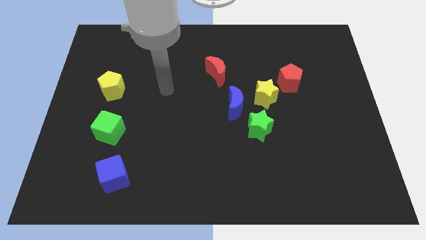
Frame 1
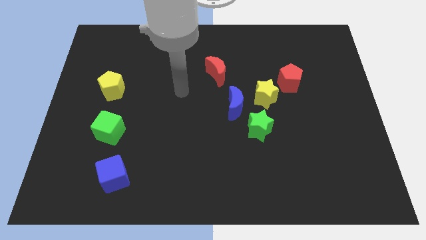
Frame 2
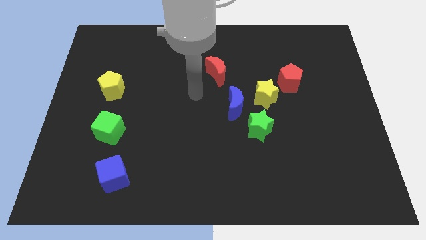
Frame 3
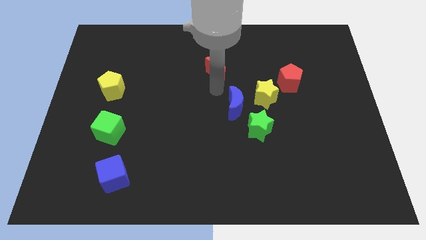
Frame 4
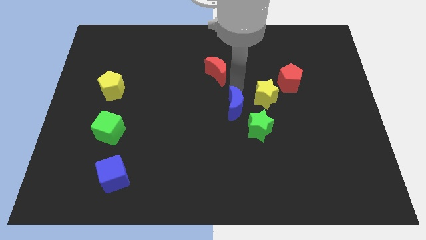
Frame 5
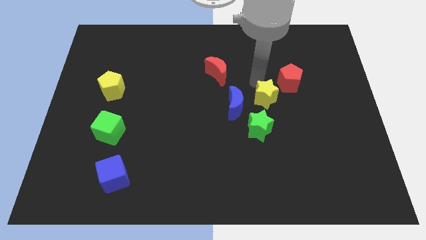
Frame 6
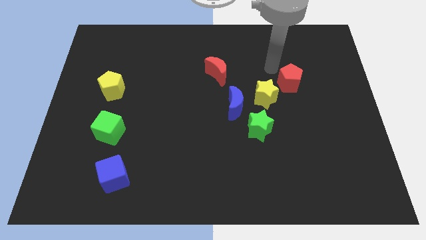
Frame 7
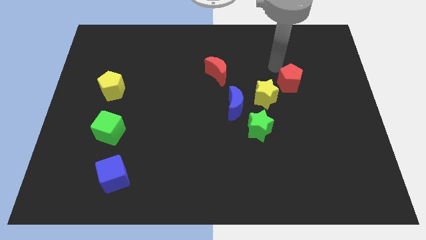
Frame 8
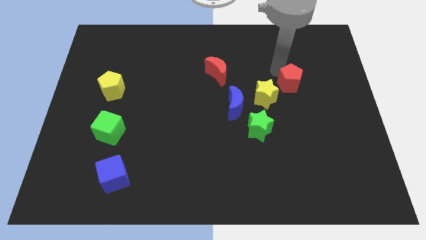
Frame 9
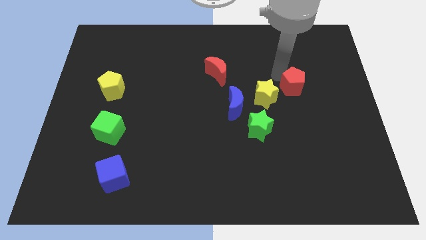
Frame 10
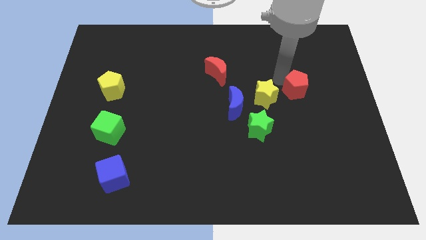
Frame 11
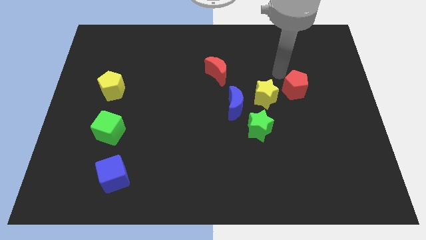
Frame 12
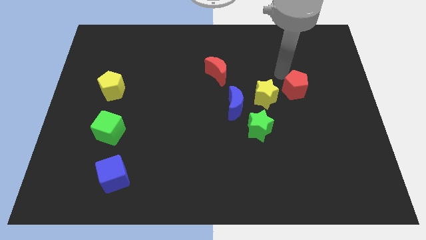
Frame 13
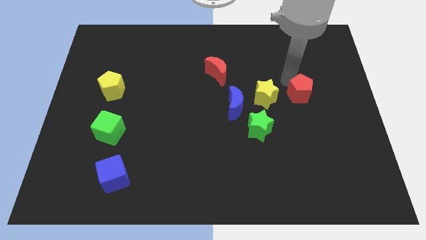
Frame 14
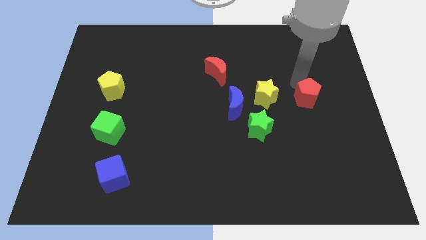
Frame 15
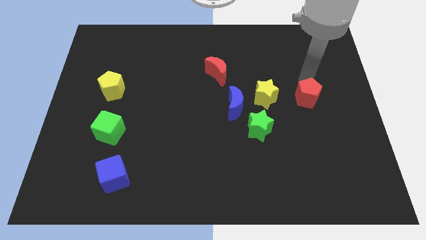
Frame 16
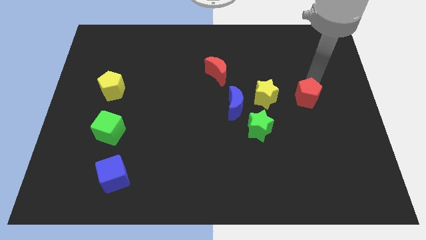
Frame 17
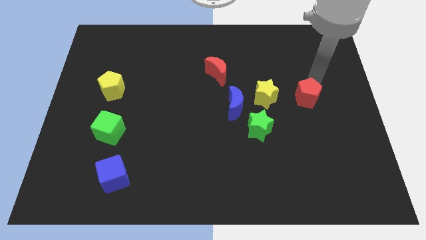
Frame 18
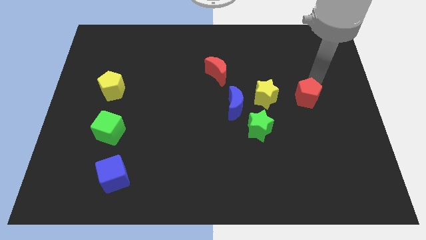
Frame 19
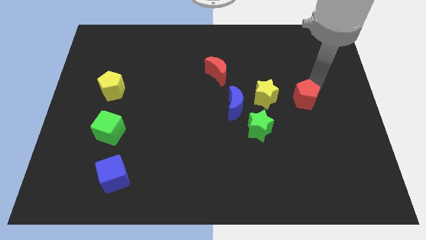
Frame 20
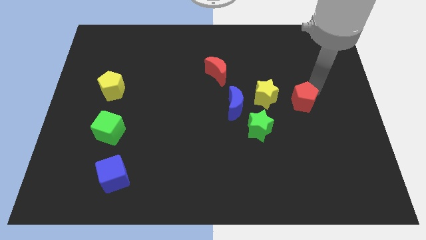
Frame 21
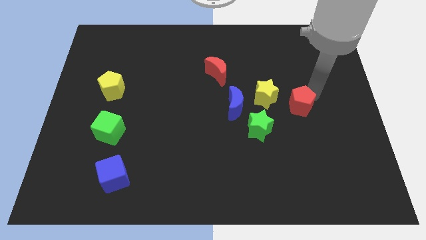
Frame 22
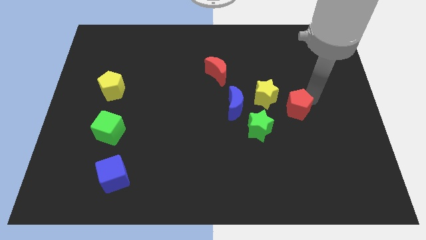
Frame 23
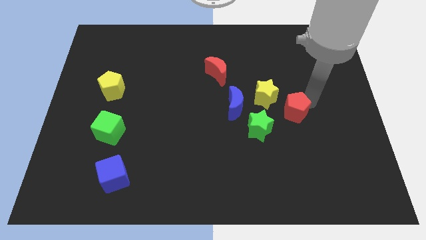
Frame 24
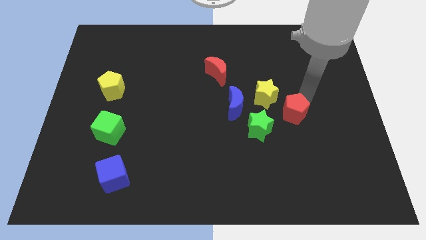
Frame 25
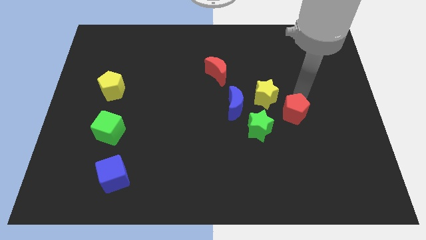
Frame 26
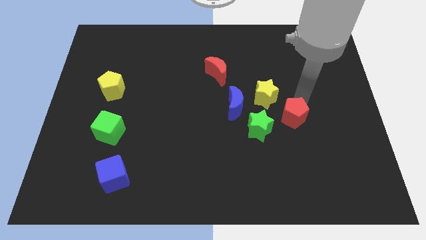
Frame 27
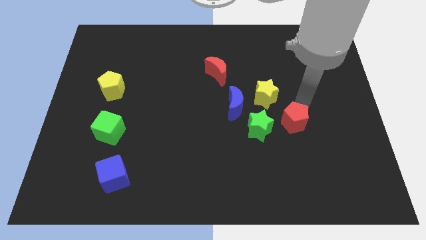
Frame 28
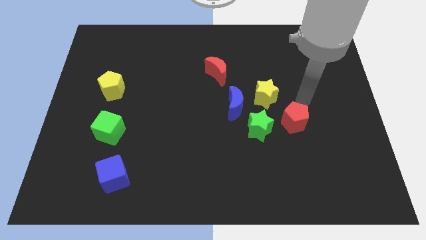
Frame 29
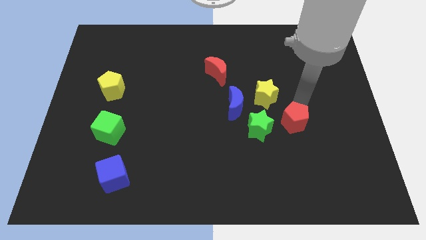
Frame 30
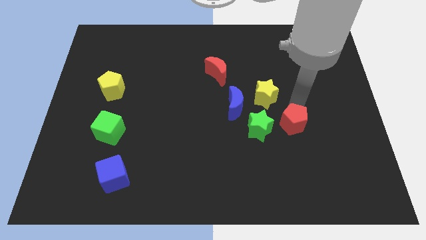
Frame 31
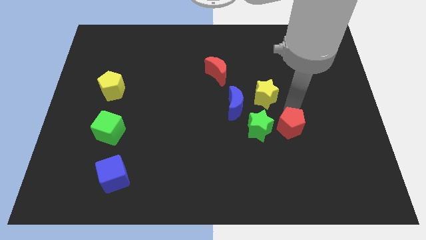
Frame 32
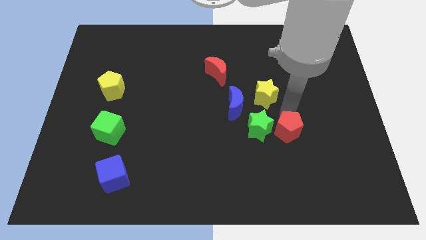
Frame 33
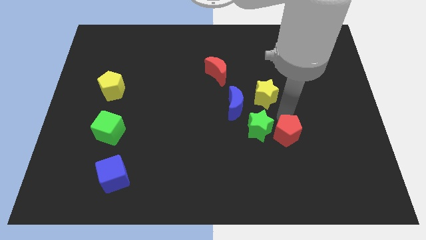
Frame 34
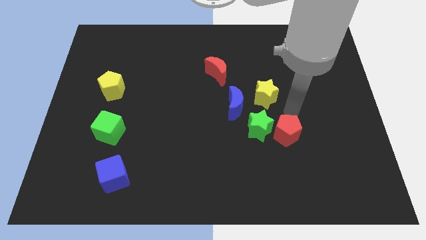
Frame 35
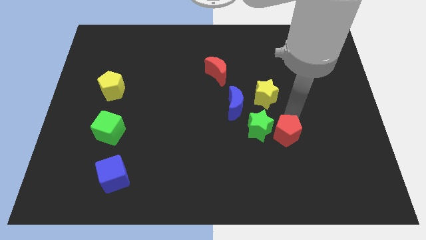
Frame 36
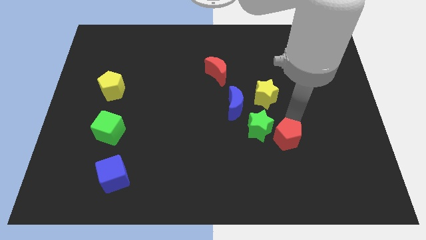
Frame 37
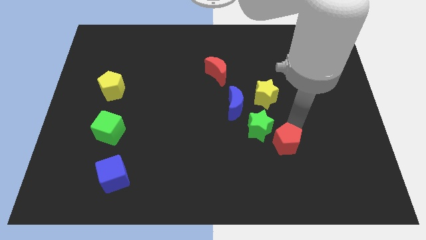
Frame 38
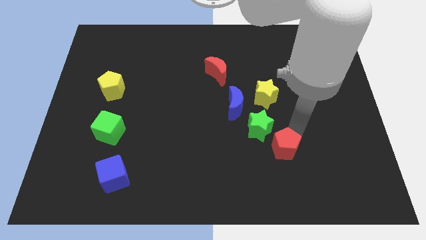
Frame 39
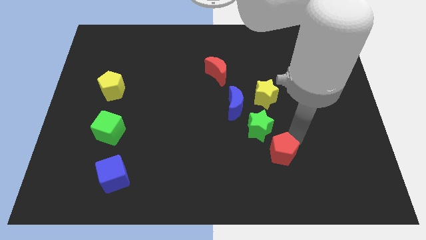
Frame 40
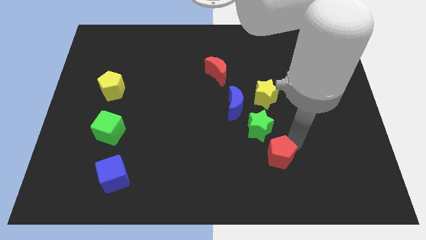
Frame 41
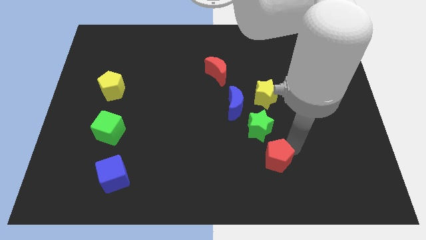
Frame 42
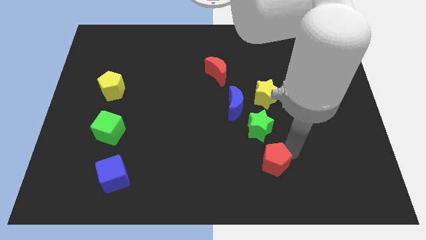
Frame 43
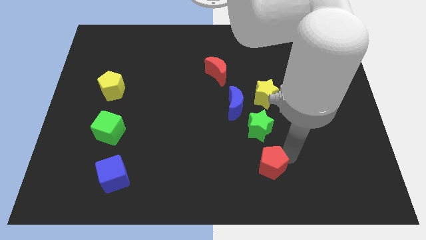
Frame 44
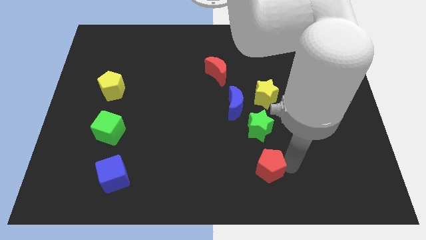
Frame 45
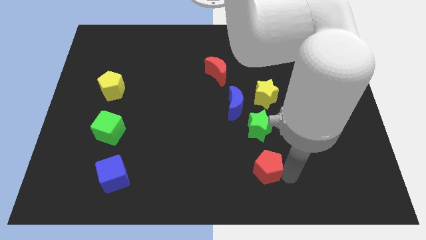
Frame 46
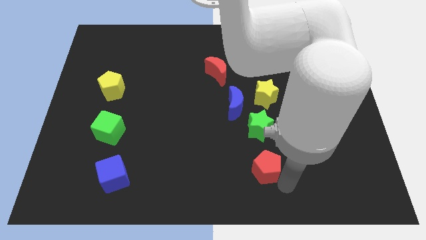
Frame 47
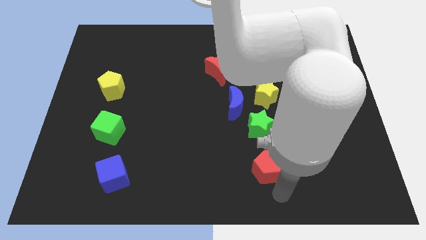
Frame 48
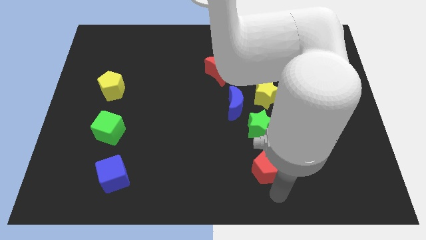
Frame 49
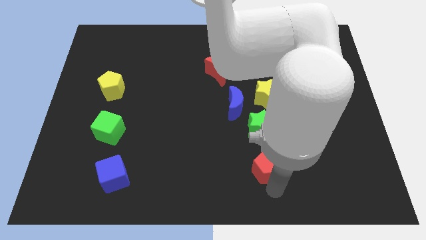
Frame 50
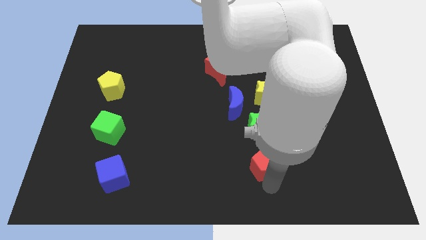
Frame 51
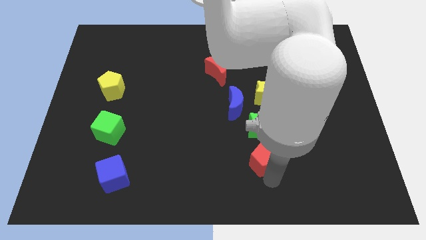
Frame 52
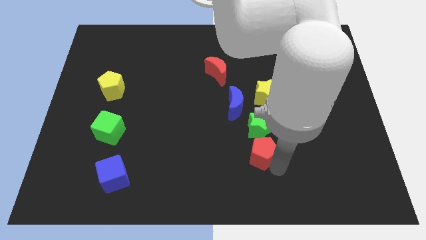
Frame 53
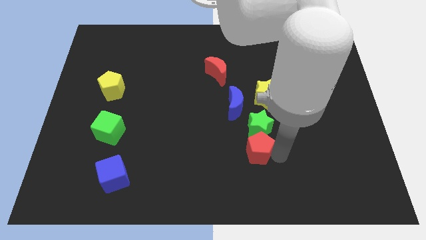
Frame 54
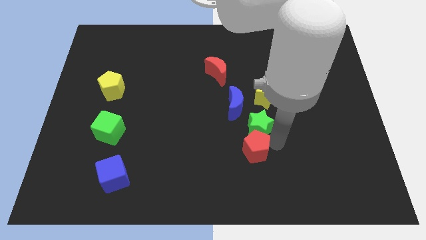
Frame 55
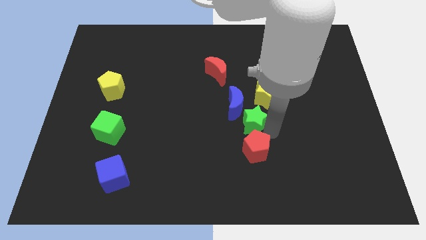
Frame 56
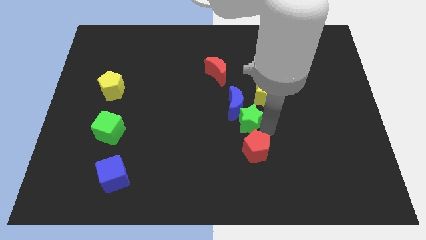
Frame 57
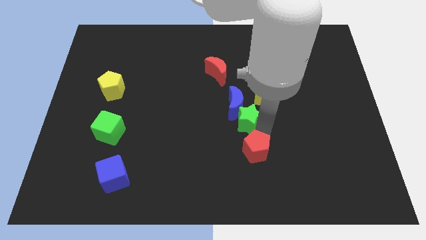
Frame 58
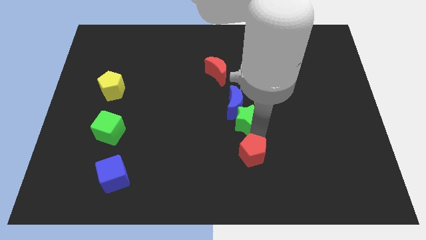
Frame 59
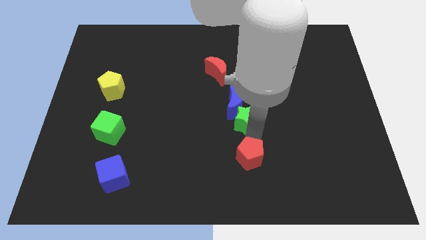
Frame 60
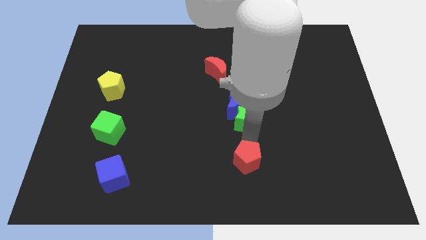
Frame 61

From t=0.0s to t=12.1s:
put the red pentagon to the bottom

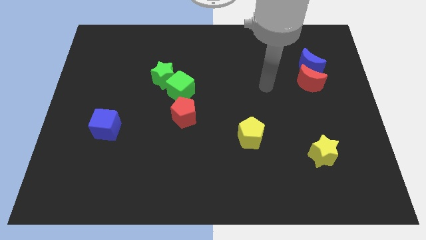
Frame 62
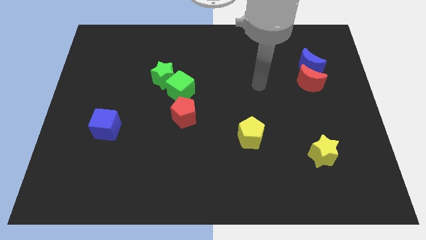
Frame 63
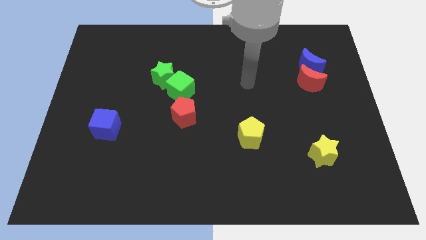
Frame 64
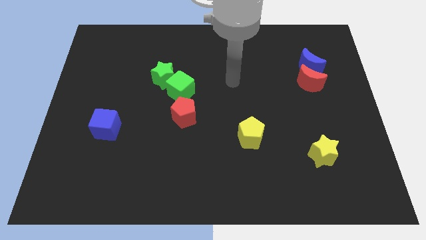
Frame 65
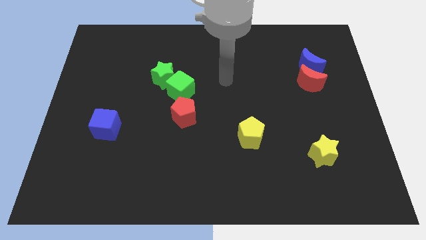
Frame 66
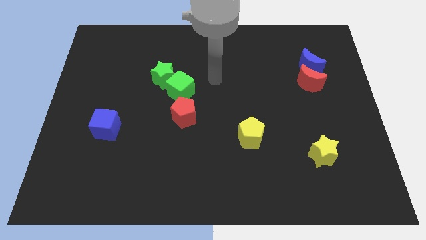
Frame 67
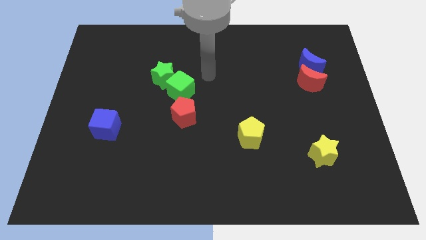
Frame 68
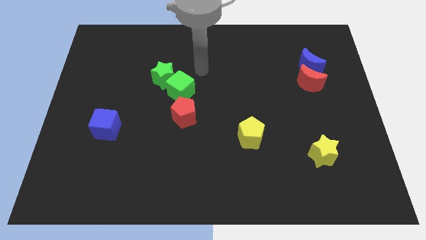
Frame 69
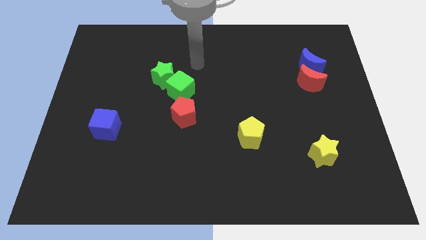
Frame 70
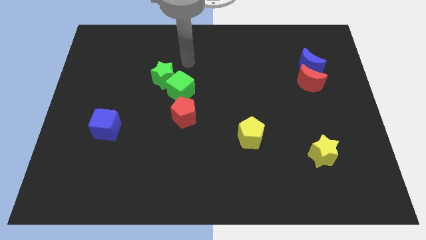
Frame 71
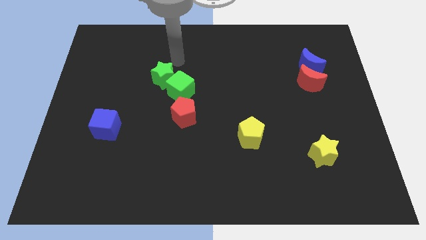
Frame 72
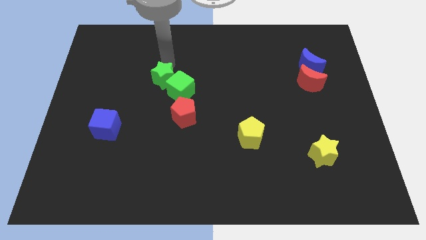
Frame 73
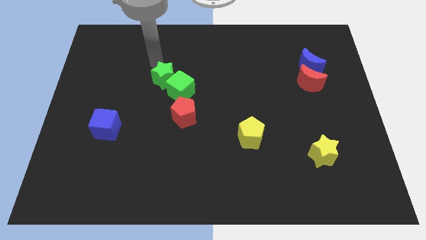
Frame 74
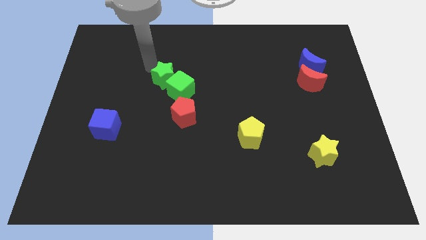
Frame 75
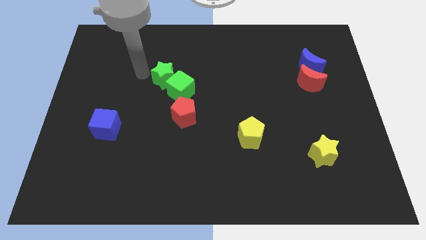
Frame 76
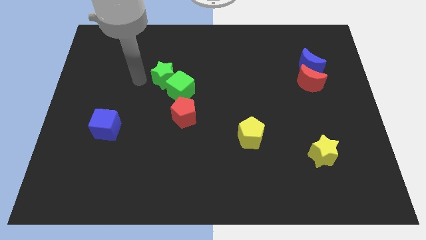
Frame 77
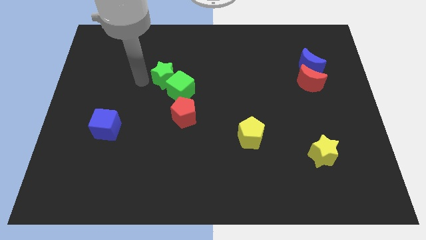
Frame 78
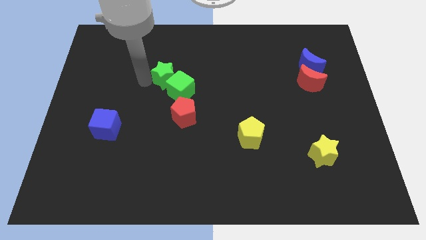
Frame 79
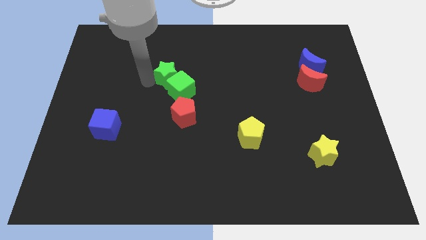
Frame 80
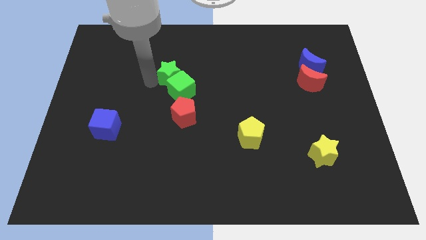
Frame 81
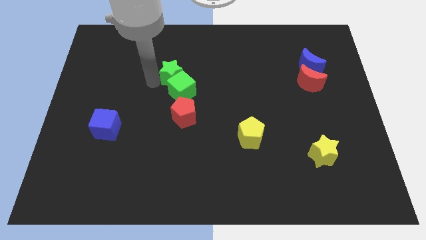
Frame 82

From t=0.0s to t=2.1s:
move the green star to the middle
